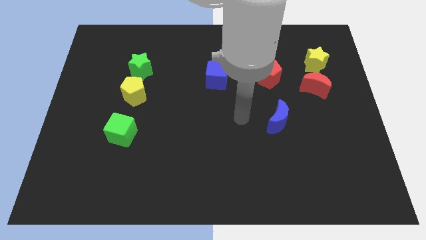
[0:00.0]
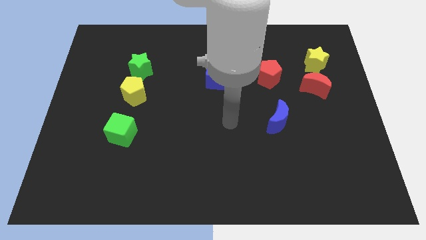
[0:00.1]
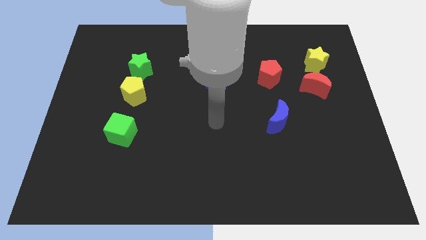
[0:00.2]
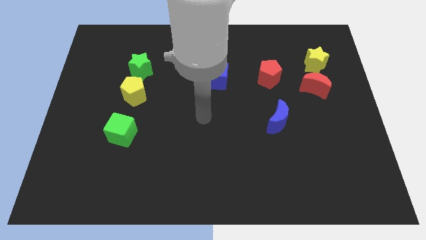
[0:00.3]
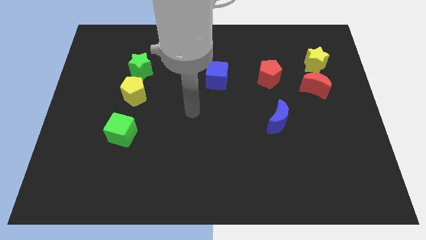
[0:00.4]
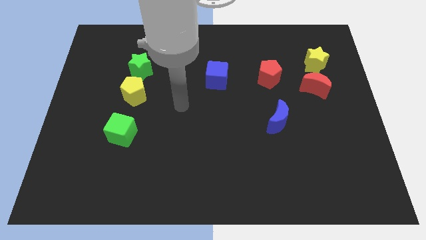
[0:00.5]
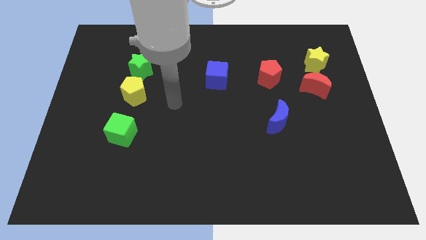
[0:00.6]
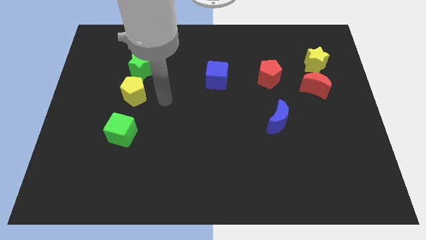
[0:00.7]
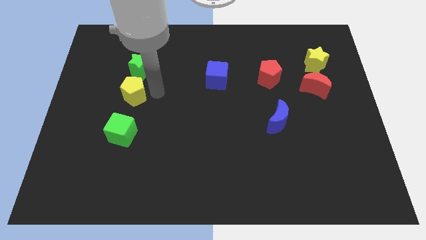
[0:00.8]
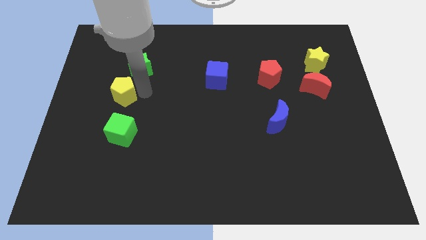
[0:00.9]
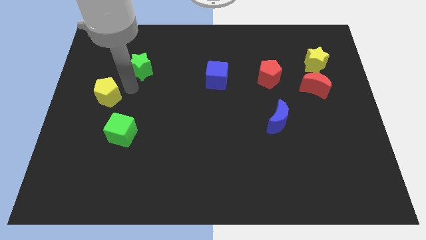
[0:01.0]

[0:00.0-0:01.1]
move the green star away from the yellow pentagon

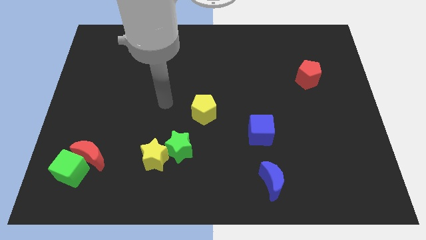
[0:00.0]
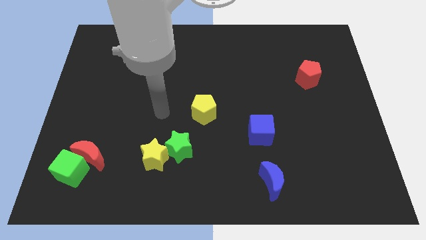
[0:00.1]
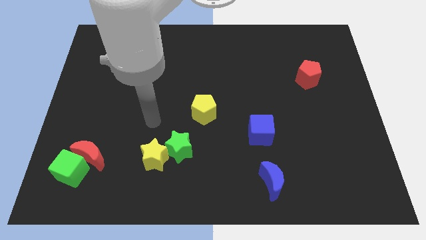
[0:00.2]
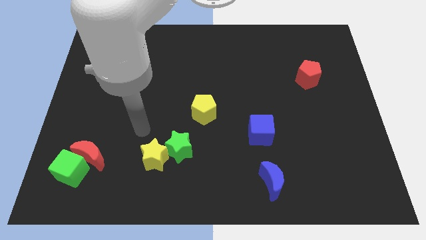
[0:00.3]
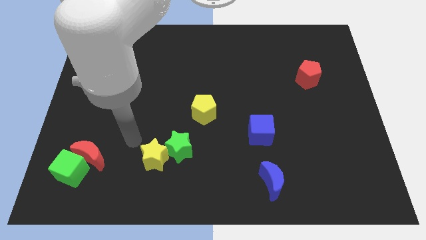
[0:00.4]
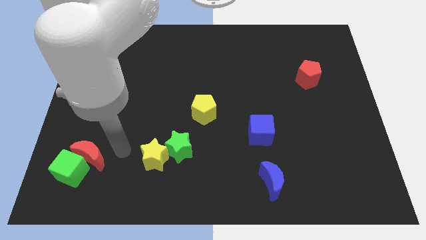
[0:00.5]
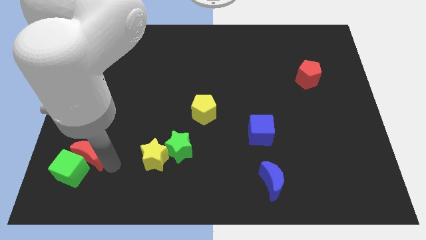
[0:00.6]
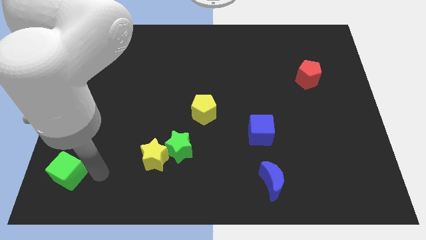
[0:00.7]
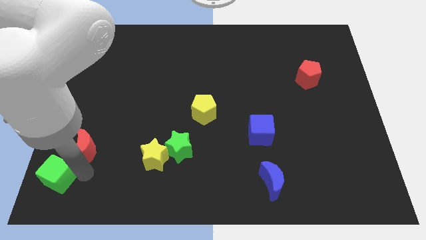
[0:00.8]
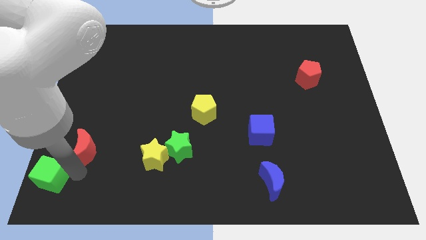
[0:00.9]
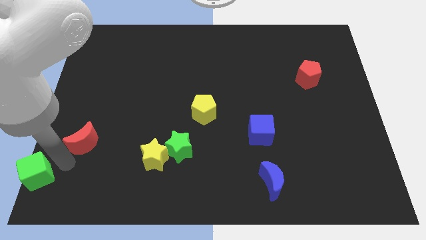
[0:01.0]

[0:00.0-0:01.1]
move the red moon away from the green cube

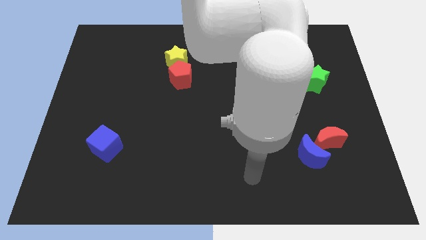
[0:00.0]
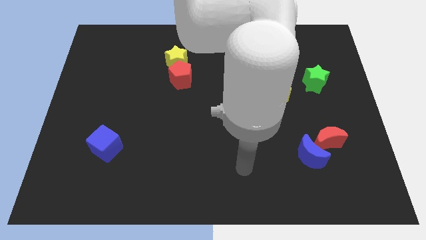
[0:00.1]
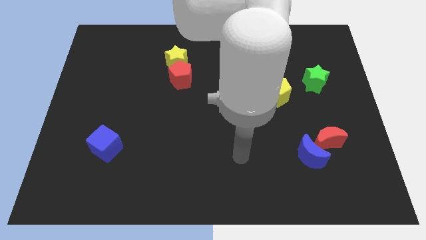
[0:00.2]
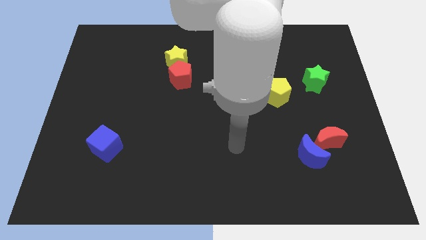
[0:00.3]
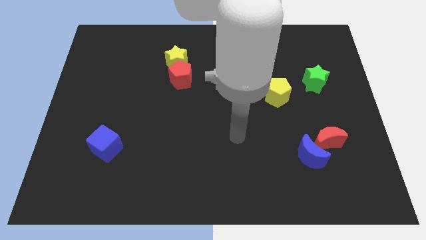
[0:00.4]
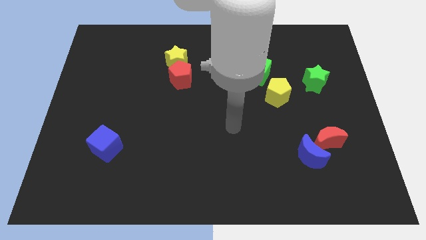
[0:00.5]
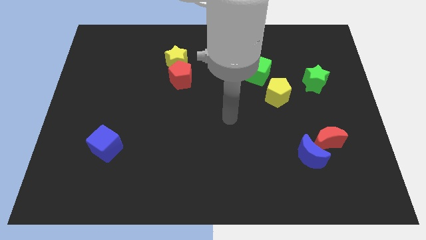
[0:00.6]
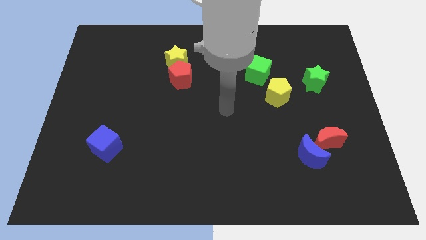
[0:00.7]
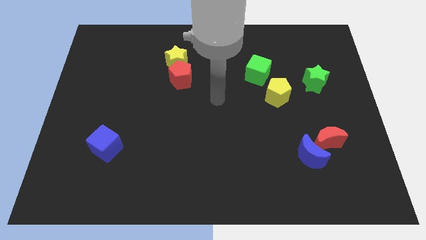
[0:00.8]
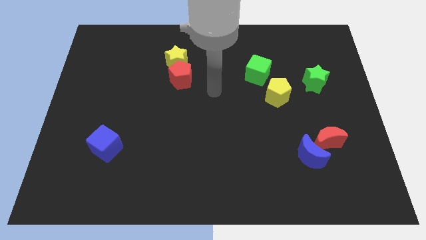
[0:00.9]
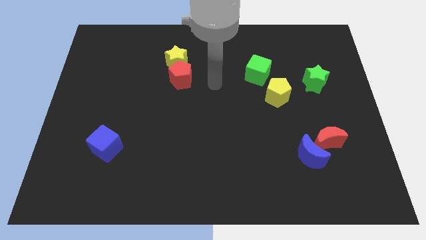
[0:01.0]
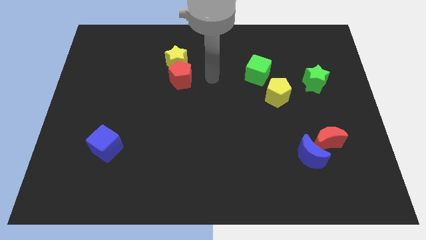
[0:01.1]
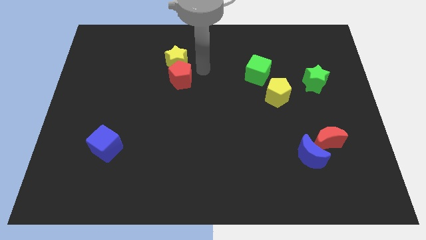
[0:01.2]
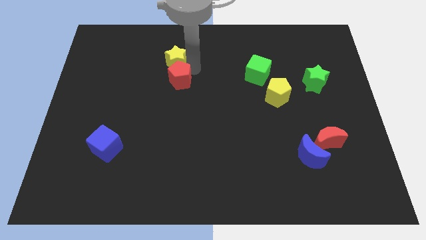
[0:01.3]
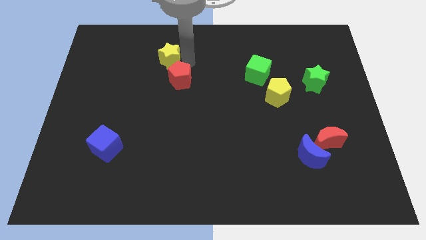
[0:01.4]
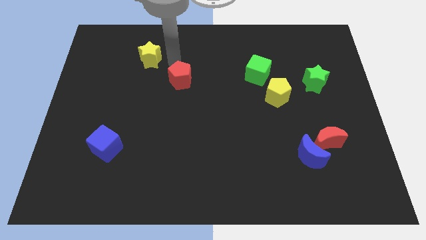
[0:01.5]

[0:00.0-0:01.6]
separate the red pentagon from the yellow star

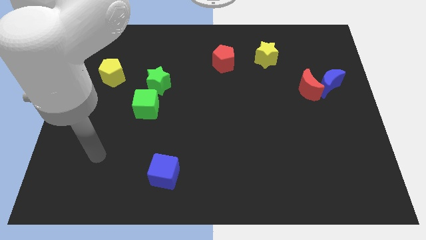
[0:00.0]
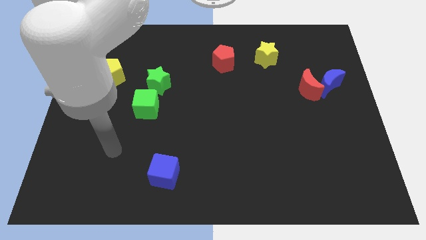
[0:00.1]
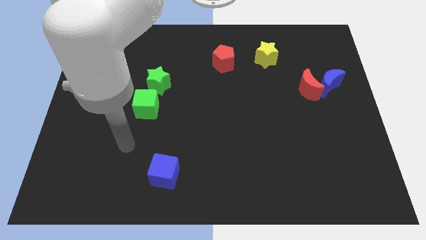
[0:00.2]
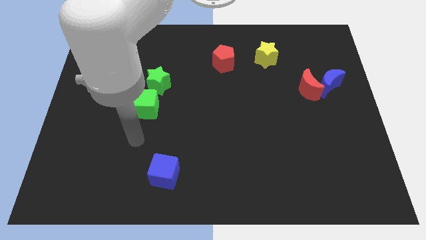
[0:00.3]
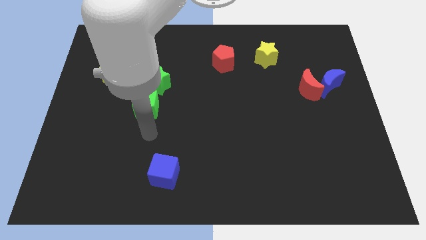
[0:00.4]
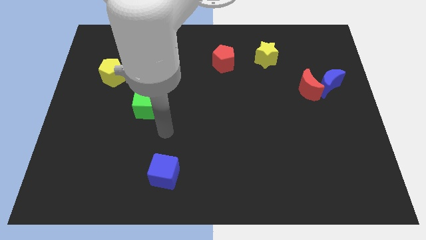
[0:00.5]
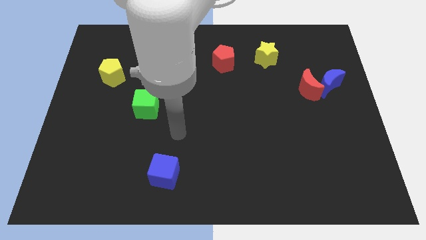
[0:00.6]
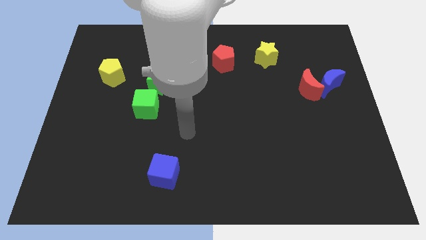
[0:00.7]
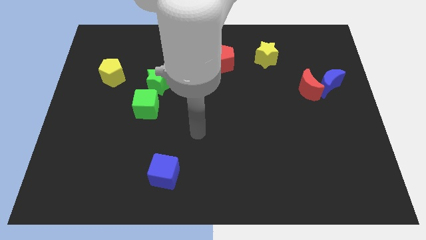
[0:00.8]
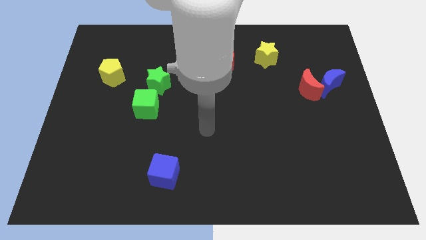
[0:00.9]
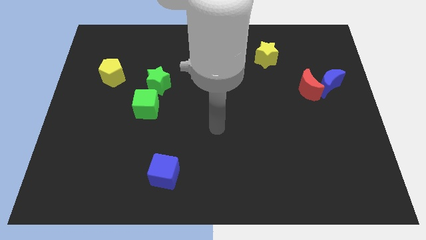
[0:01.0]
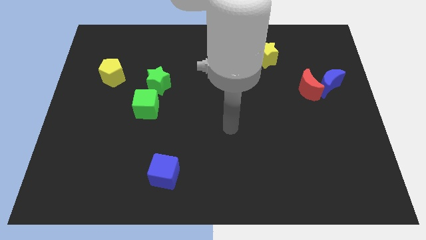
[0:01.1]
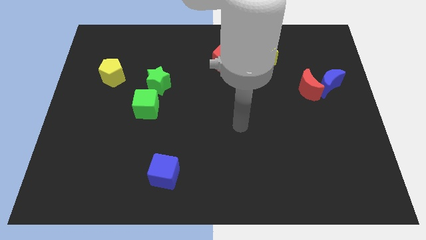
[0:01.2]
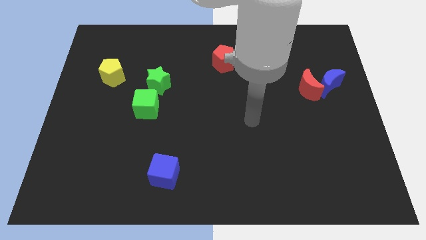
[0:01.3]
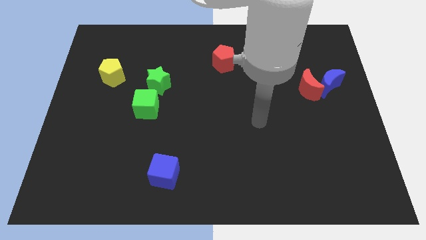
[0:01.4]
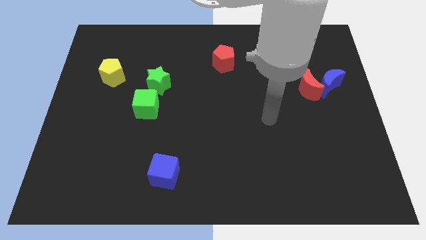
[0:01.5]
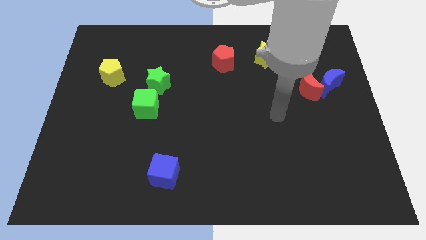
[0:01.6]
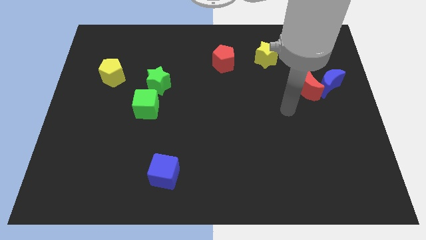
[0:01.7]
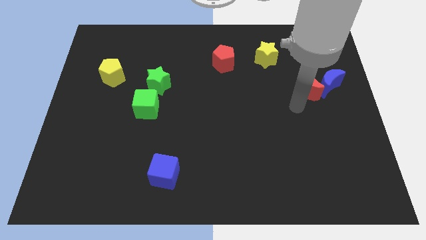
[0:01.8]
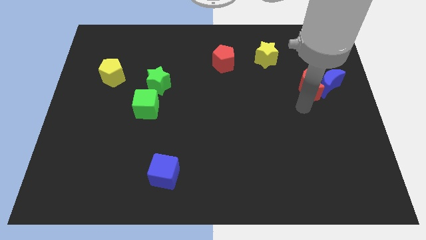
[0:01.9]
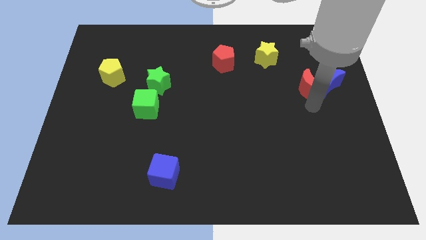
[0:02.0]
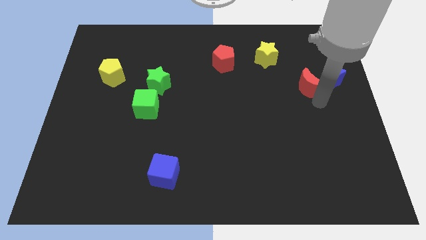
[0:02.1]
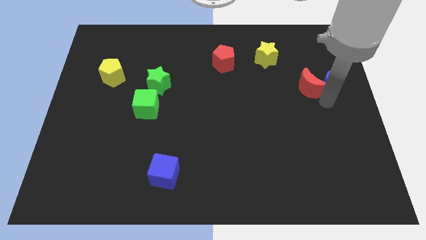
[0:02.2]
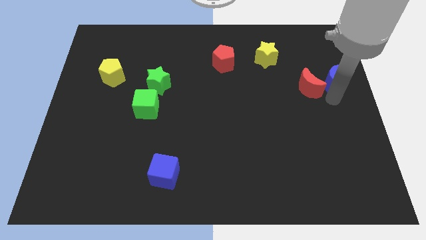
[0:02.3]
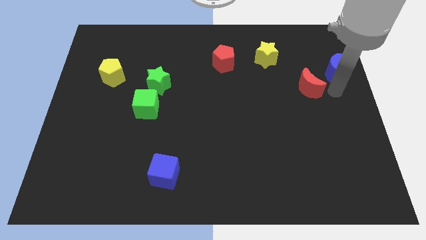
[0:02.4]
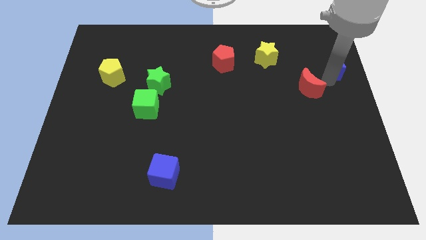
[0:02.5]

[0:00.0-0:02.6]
separate the red moon from the blue moon

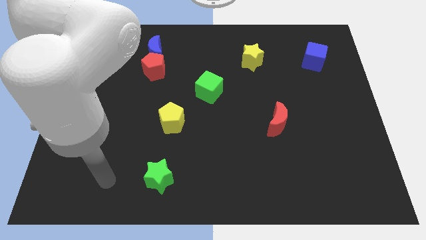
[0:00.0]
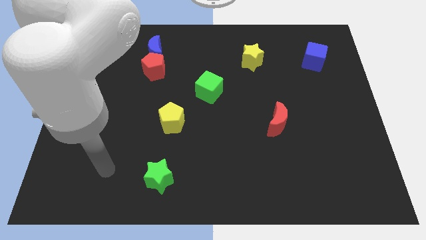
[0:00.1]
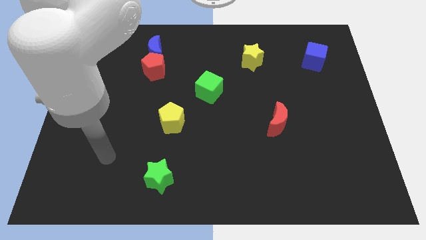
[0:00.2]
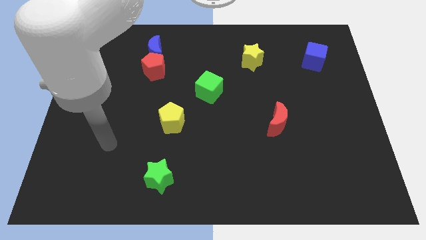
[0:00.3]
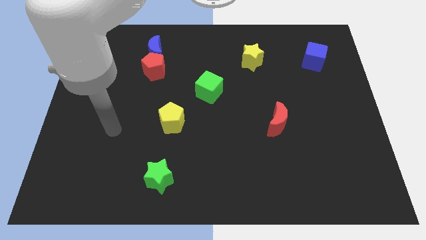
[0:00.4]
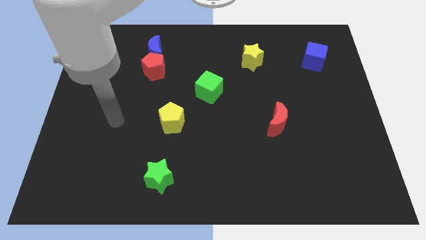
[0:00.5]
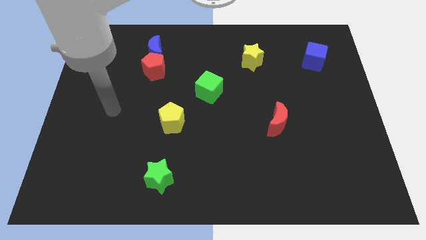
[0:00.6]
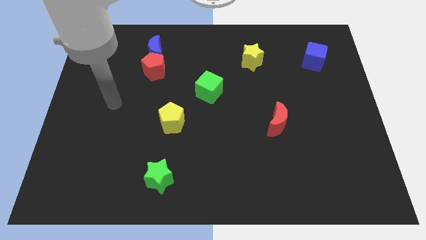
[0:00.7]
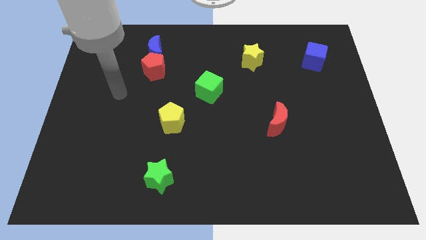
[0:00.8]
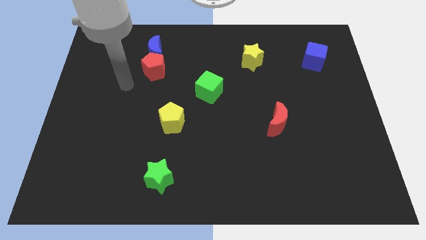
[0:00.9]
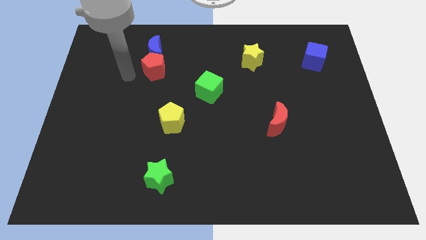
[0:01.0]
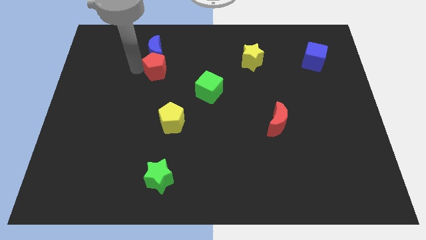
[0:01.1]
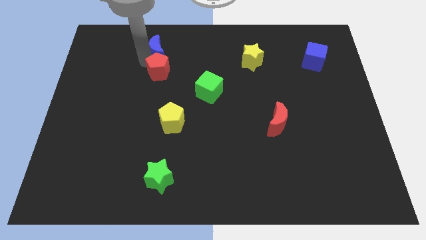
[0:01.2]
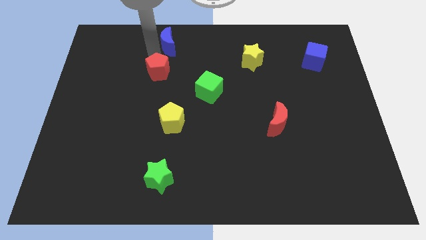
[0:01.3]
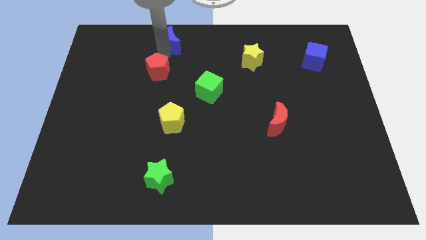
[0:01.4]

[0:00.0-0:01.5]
separate the red pentagon from the blue moon

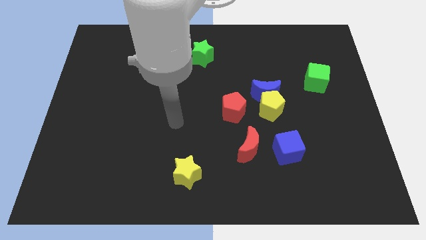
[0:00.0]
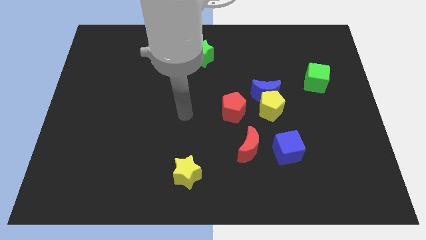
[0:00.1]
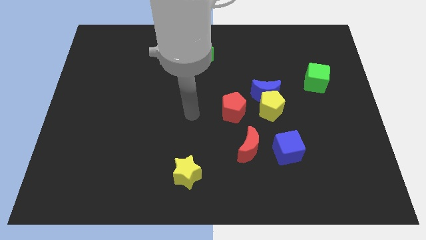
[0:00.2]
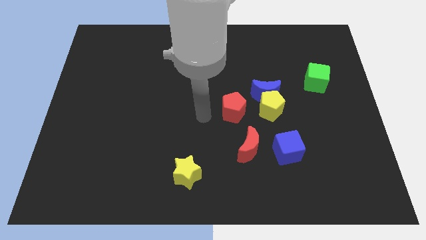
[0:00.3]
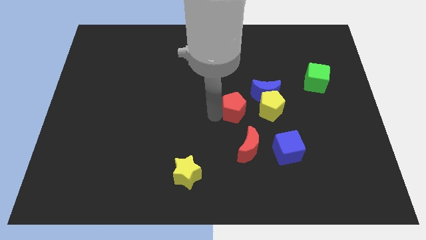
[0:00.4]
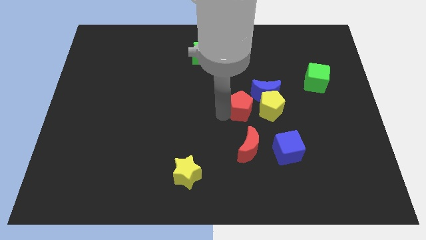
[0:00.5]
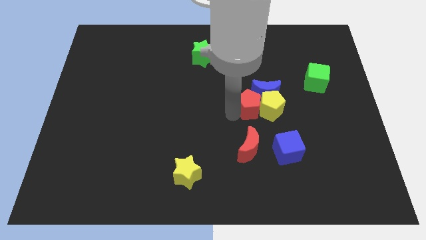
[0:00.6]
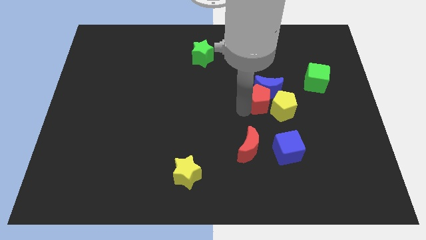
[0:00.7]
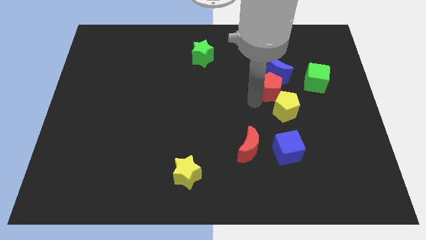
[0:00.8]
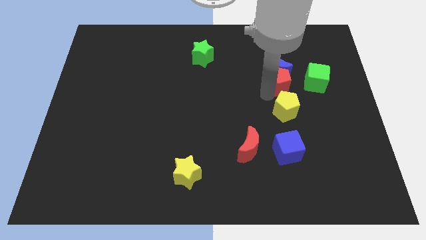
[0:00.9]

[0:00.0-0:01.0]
separate the yellow pentagon from the blue moon and red pentagon

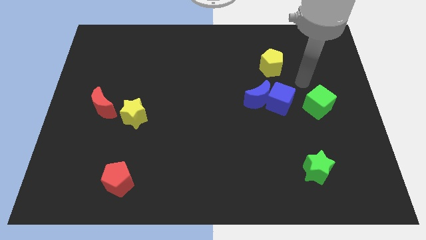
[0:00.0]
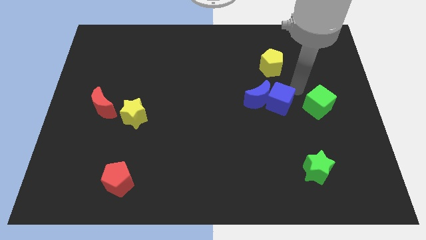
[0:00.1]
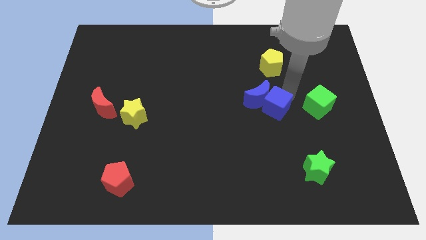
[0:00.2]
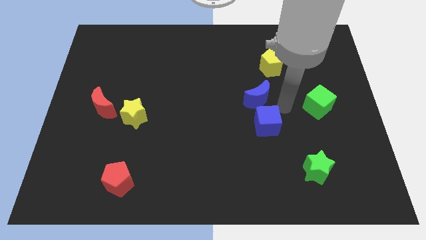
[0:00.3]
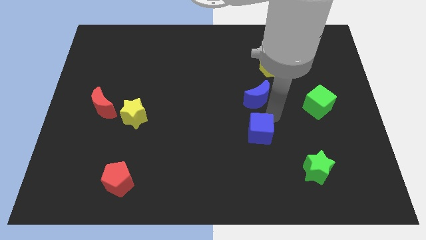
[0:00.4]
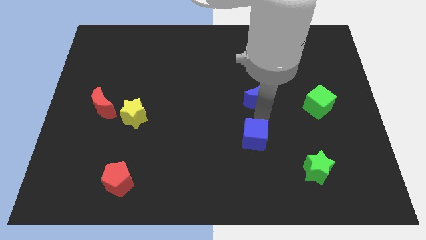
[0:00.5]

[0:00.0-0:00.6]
move the blue moon away from the blue cube
